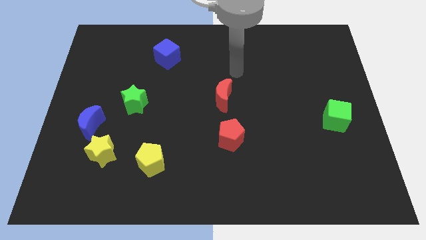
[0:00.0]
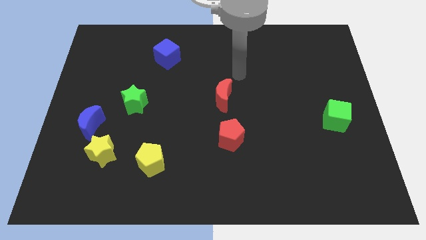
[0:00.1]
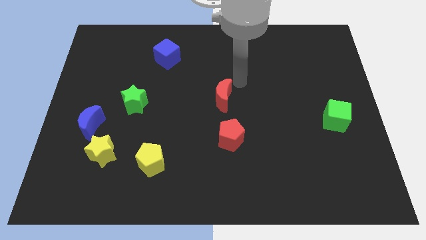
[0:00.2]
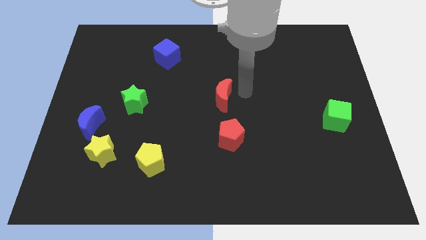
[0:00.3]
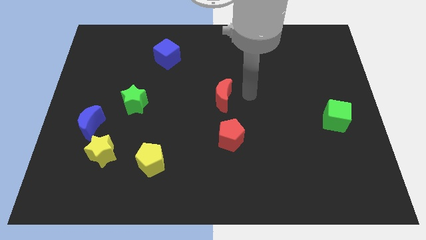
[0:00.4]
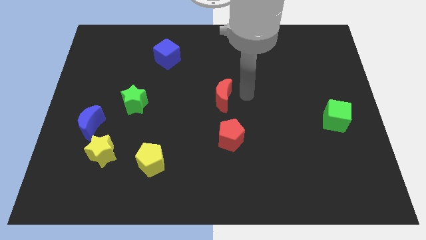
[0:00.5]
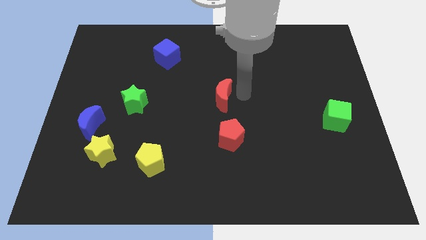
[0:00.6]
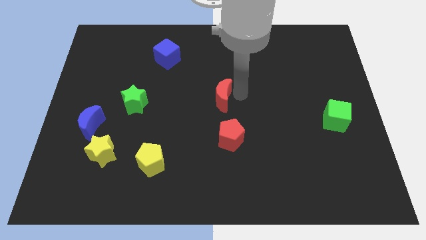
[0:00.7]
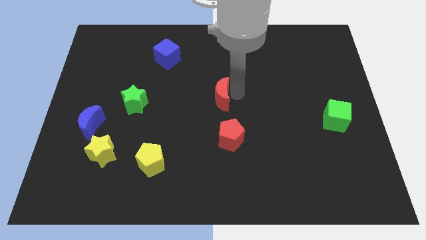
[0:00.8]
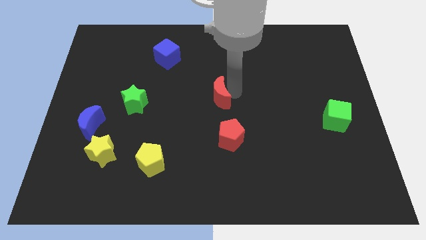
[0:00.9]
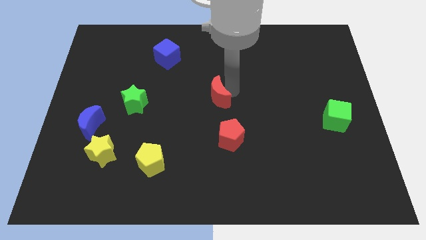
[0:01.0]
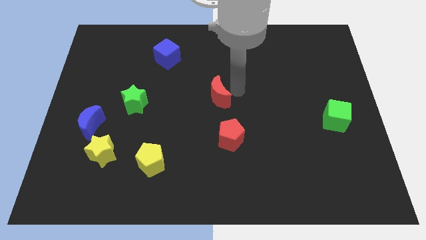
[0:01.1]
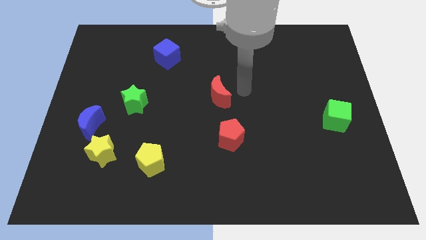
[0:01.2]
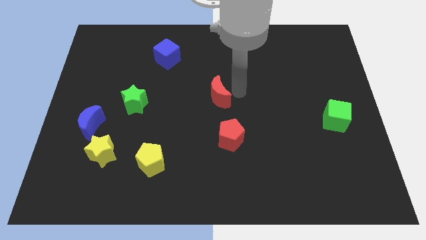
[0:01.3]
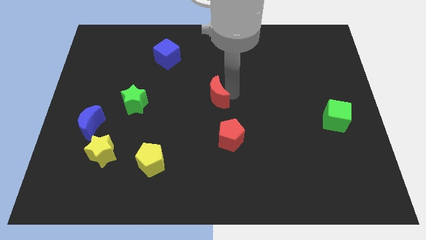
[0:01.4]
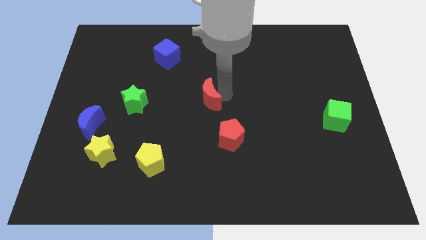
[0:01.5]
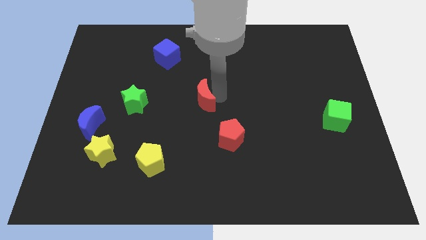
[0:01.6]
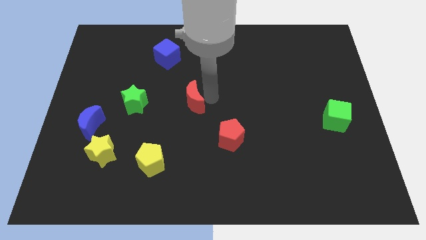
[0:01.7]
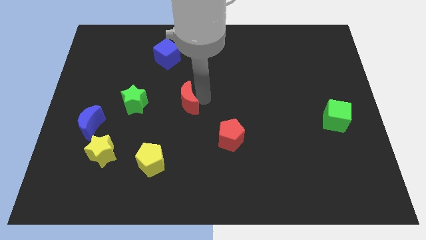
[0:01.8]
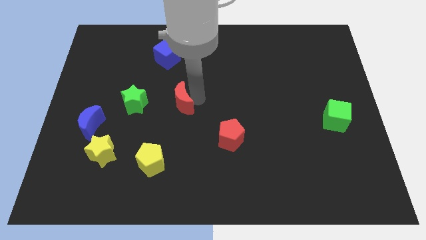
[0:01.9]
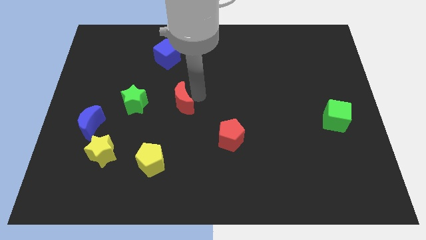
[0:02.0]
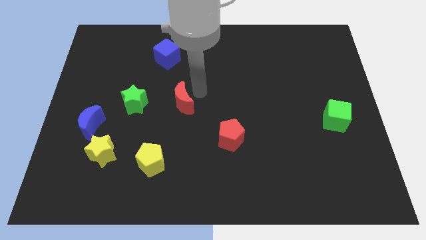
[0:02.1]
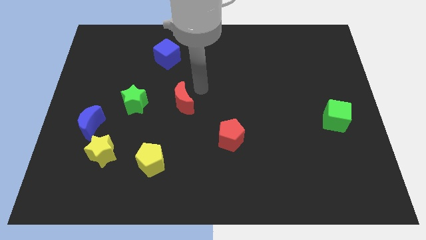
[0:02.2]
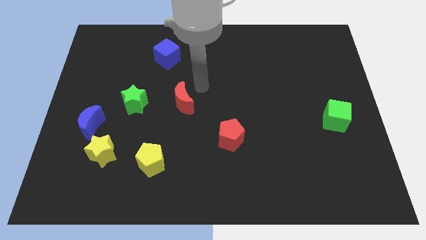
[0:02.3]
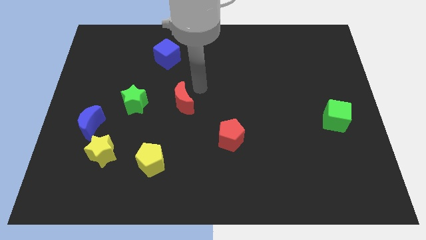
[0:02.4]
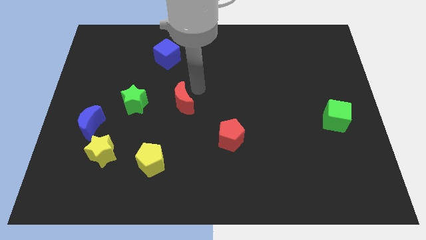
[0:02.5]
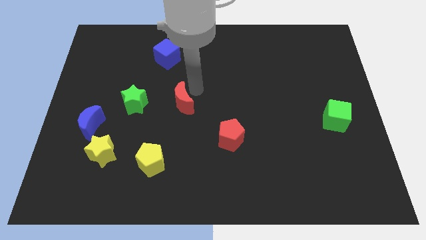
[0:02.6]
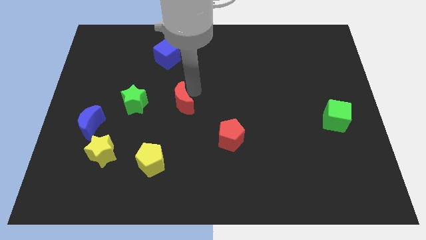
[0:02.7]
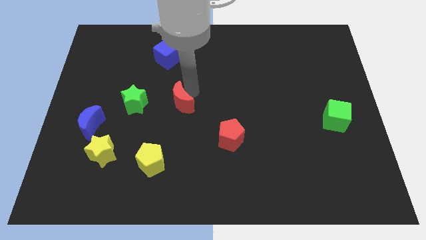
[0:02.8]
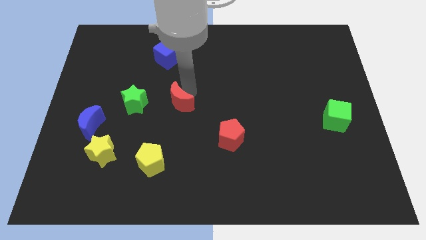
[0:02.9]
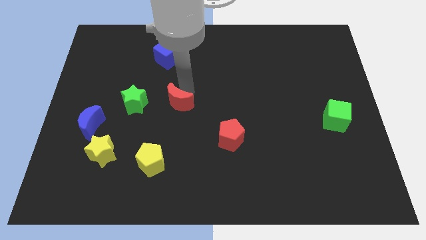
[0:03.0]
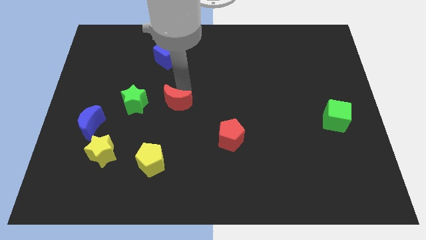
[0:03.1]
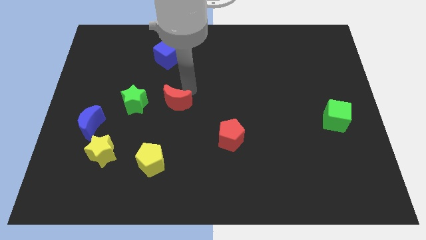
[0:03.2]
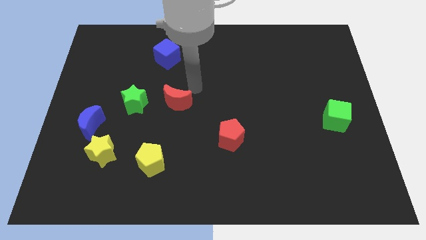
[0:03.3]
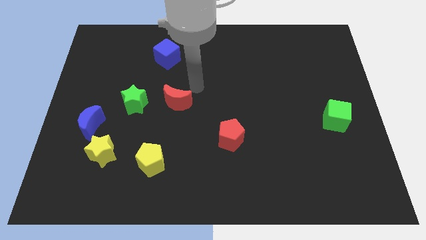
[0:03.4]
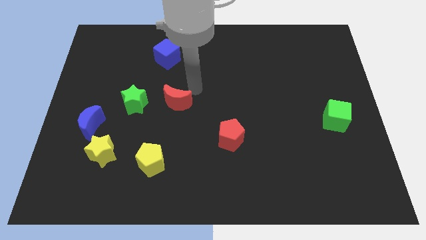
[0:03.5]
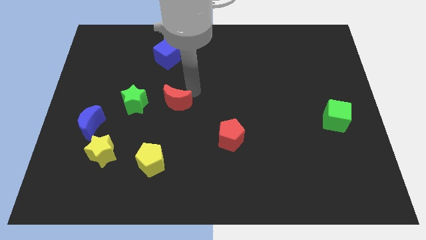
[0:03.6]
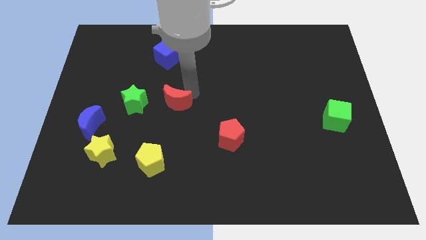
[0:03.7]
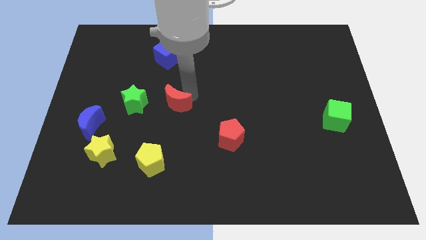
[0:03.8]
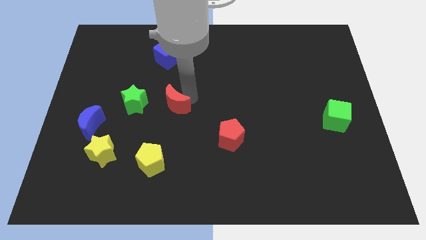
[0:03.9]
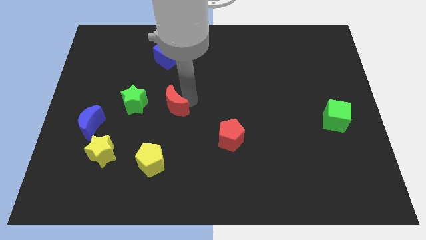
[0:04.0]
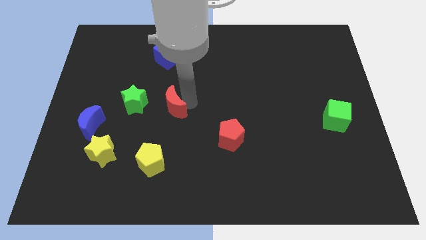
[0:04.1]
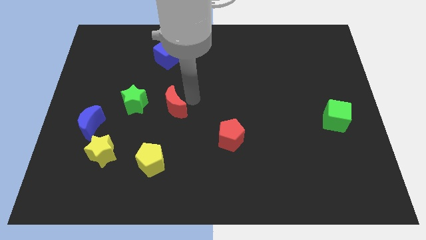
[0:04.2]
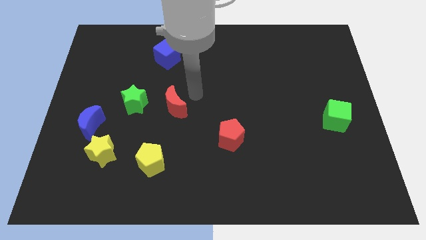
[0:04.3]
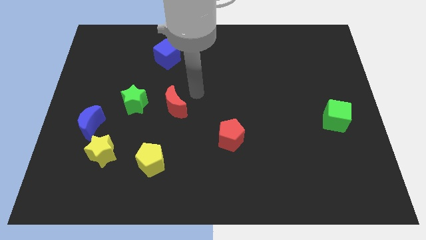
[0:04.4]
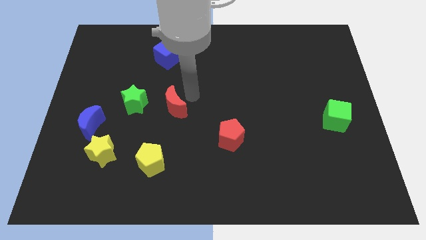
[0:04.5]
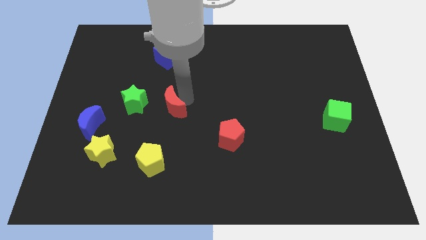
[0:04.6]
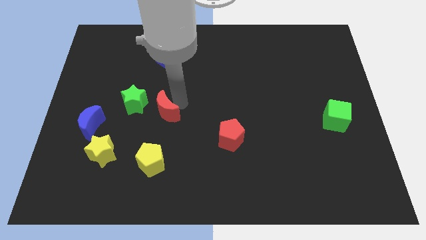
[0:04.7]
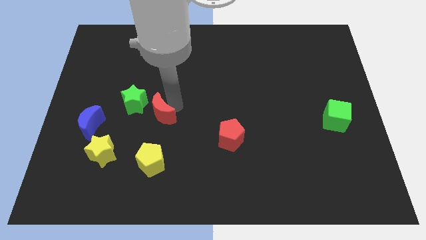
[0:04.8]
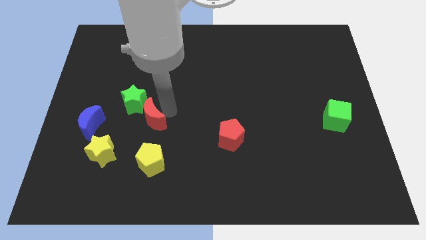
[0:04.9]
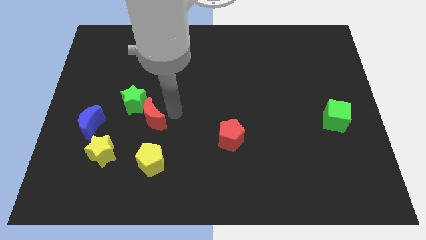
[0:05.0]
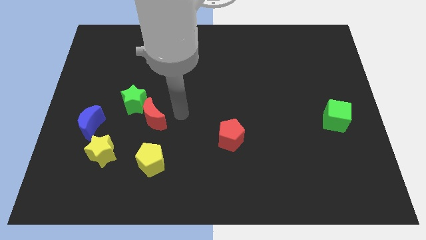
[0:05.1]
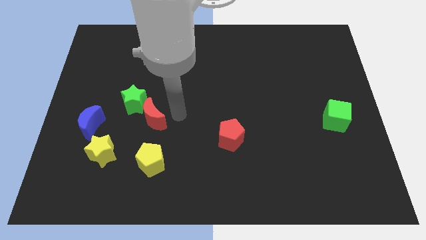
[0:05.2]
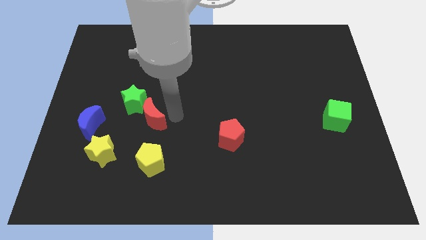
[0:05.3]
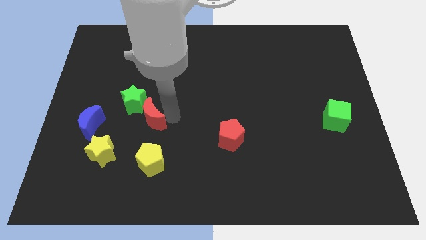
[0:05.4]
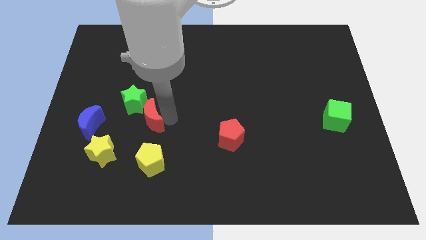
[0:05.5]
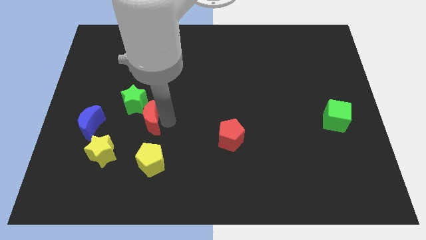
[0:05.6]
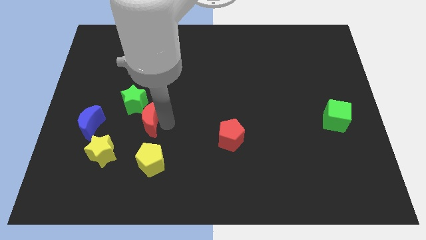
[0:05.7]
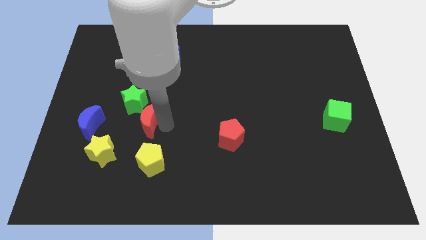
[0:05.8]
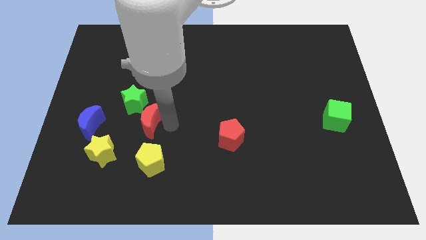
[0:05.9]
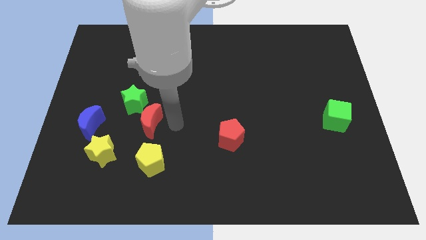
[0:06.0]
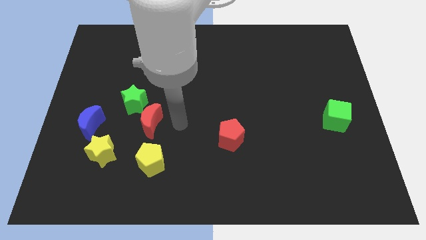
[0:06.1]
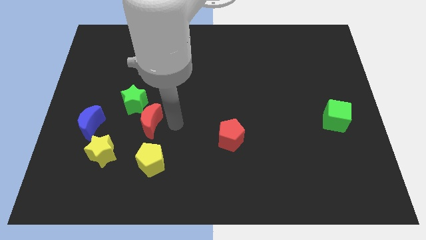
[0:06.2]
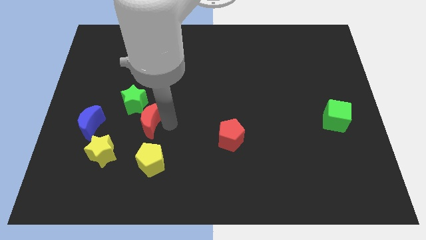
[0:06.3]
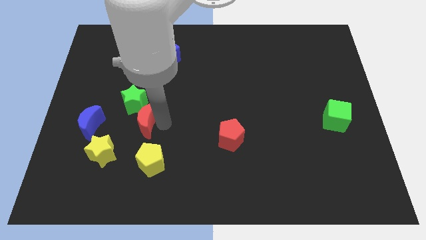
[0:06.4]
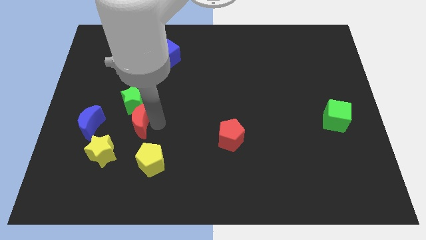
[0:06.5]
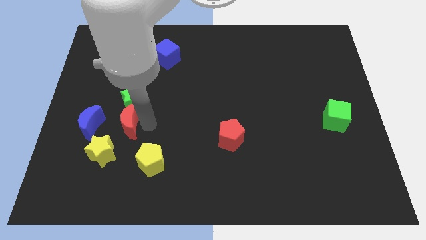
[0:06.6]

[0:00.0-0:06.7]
slide the red moon to the top of the yellow star

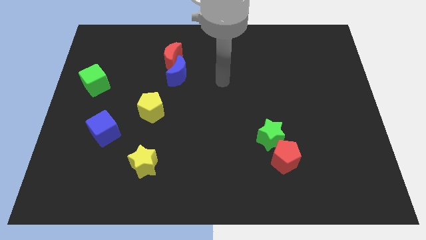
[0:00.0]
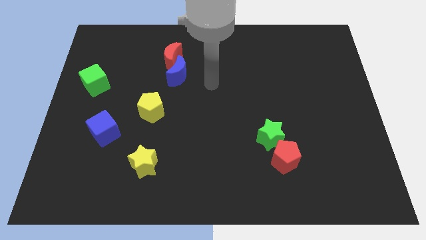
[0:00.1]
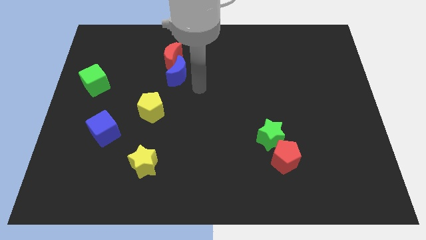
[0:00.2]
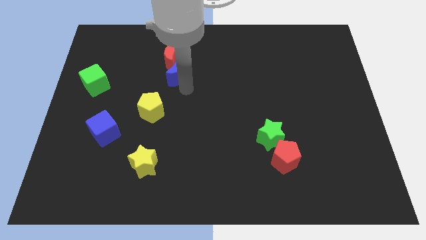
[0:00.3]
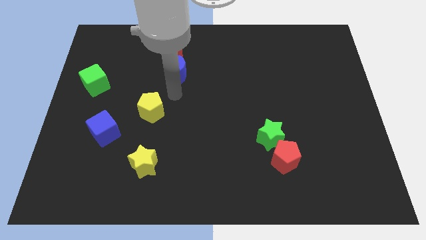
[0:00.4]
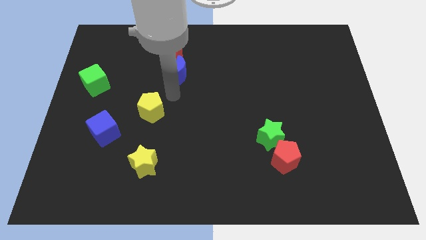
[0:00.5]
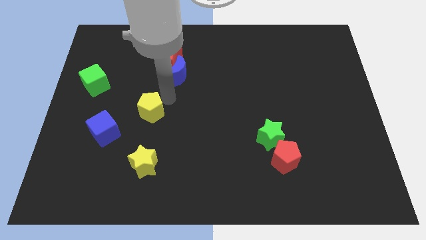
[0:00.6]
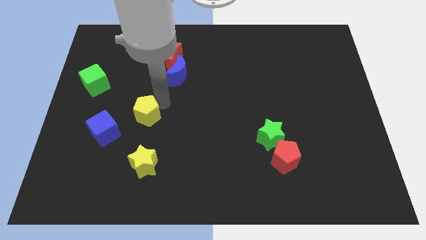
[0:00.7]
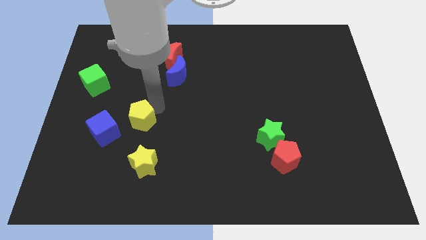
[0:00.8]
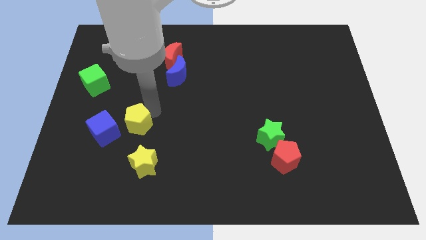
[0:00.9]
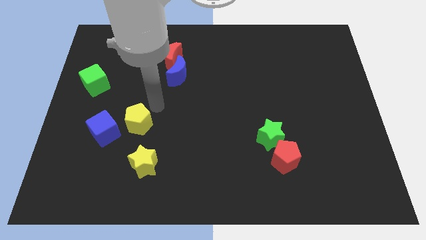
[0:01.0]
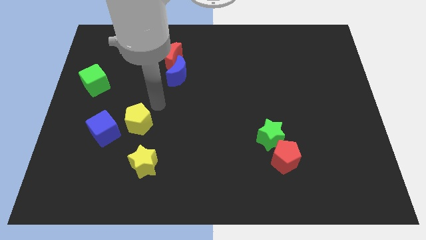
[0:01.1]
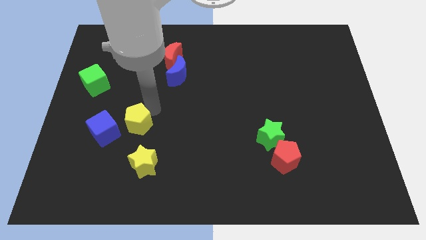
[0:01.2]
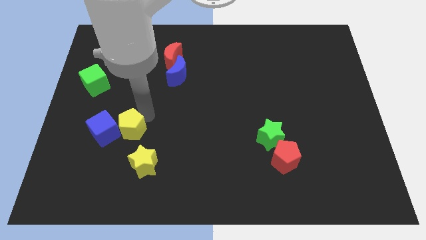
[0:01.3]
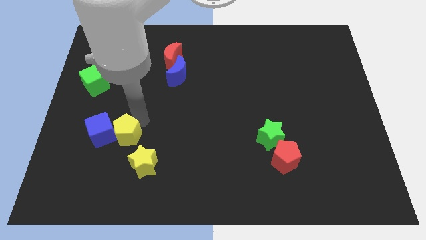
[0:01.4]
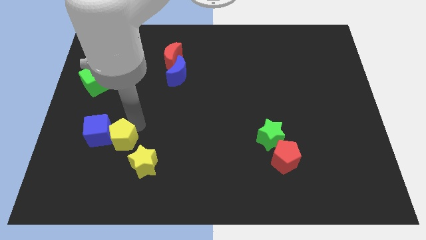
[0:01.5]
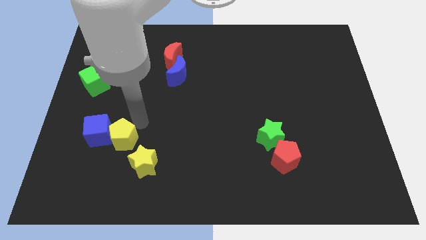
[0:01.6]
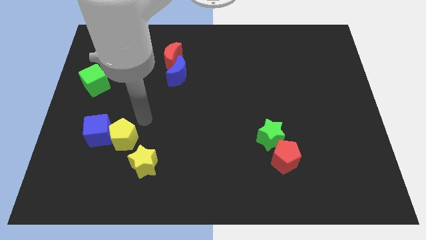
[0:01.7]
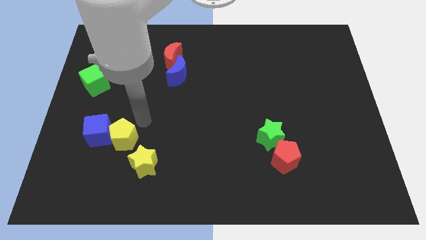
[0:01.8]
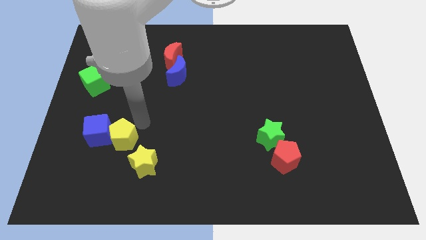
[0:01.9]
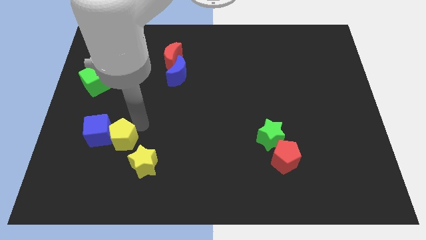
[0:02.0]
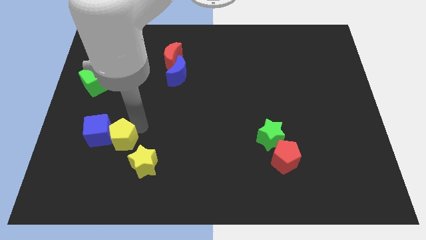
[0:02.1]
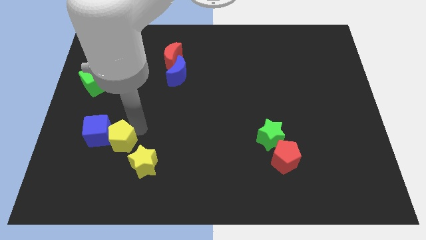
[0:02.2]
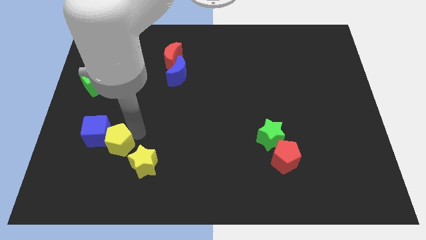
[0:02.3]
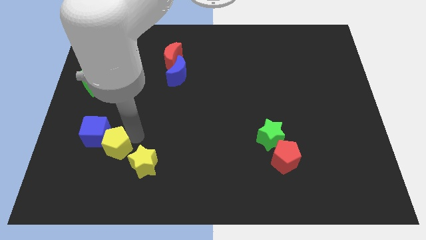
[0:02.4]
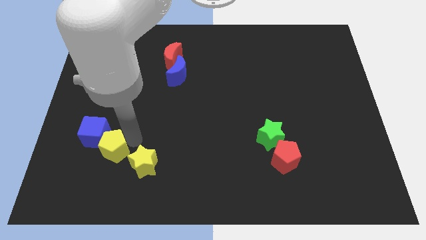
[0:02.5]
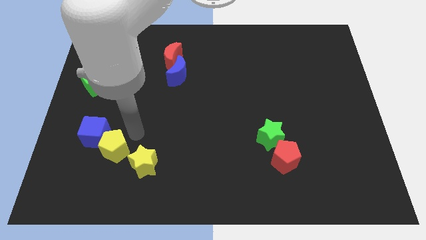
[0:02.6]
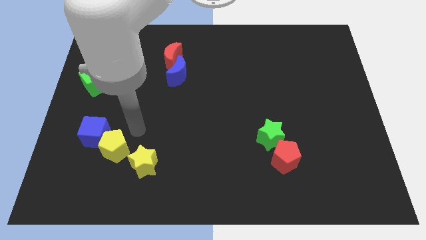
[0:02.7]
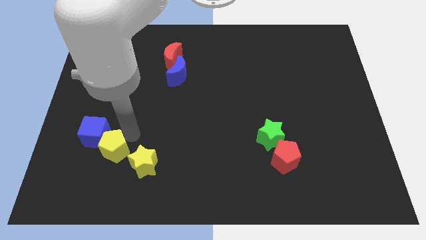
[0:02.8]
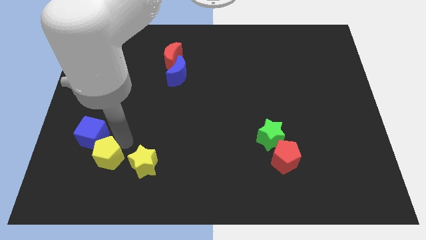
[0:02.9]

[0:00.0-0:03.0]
put the yellow pentagon to the bottom of the blue cube
